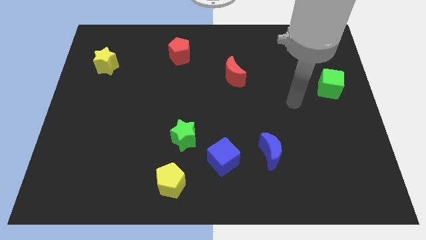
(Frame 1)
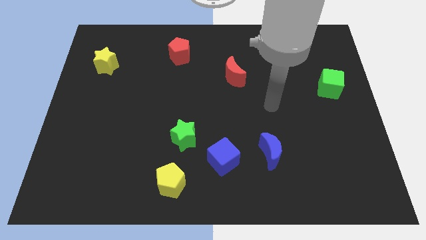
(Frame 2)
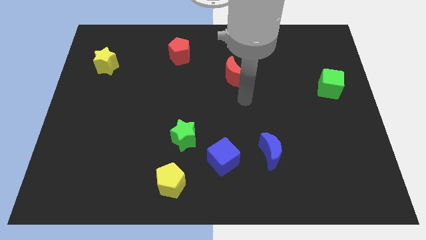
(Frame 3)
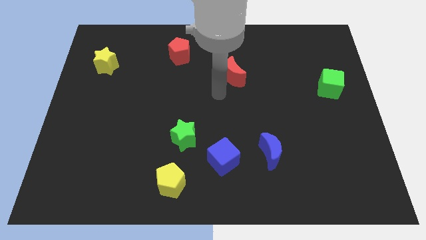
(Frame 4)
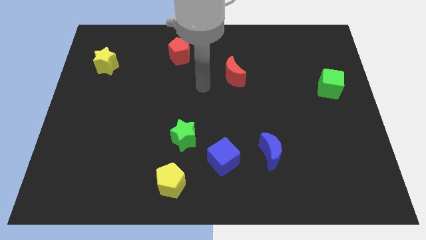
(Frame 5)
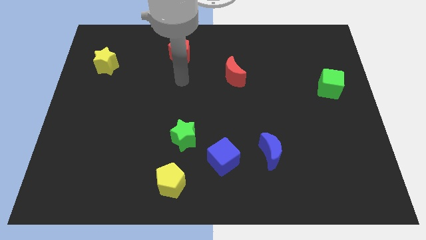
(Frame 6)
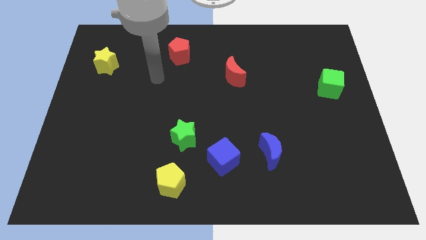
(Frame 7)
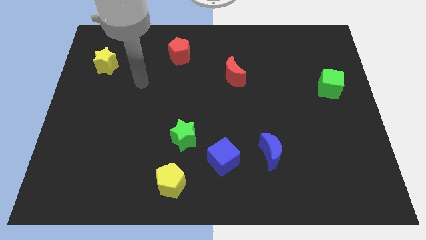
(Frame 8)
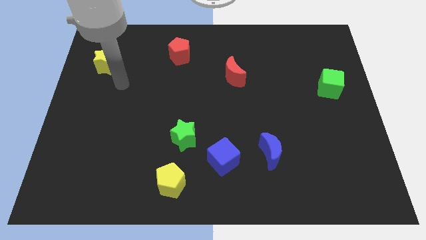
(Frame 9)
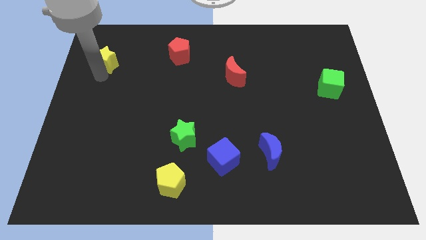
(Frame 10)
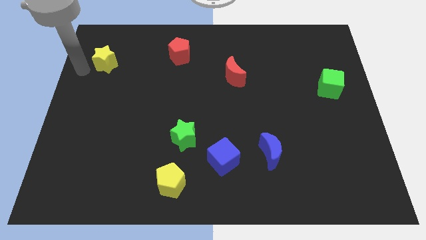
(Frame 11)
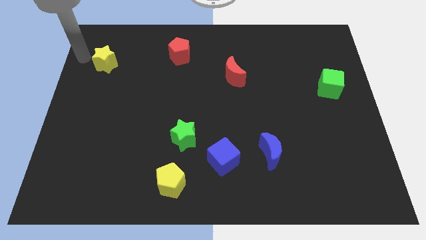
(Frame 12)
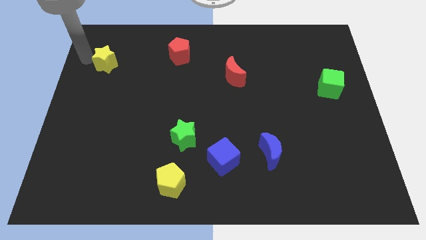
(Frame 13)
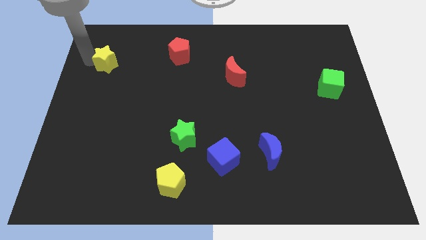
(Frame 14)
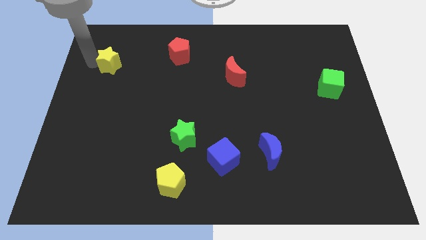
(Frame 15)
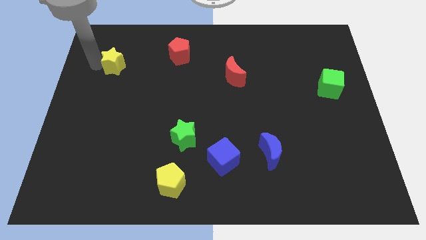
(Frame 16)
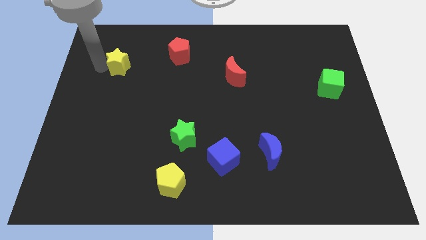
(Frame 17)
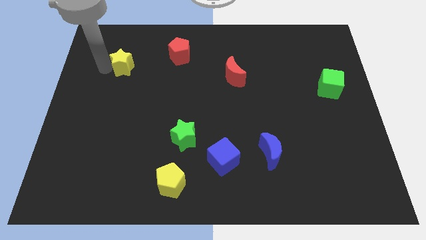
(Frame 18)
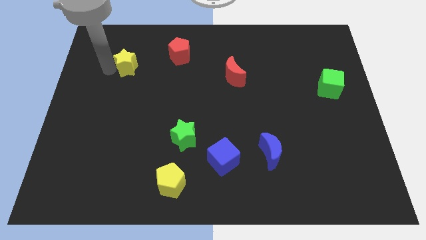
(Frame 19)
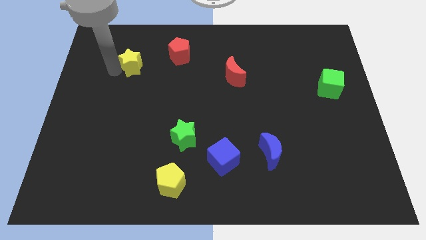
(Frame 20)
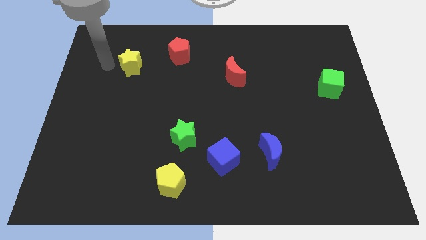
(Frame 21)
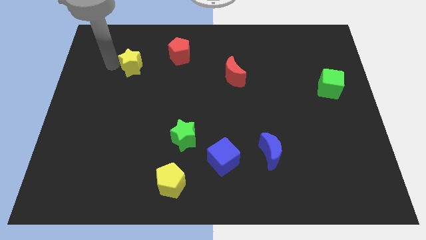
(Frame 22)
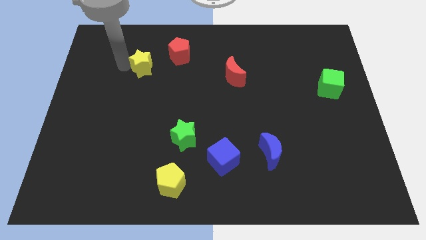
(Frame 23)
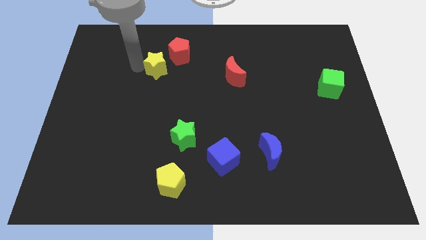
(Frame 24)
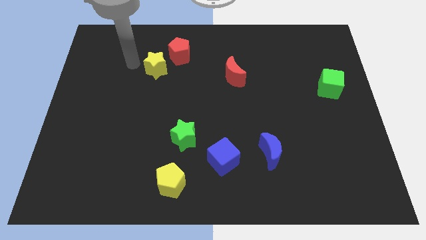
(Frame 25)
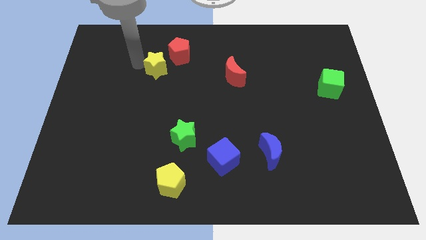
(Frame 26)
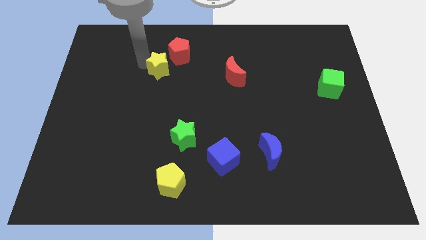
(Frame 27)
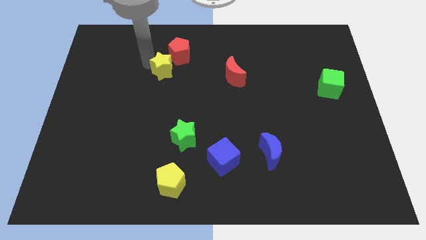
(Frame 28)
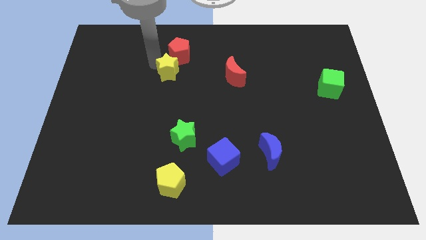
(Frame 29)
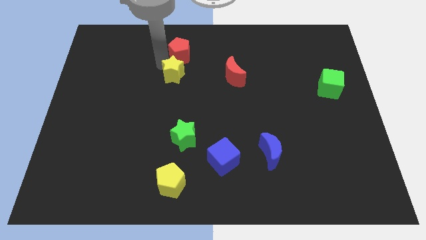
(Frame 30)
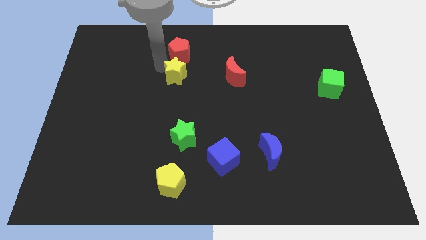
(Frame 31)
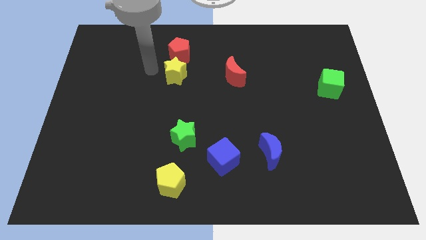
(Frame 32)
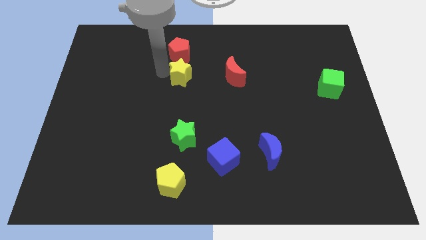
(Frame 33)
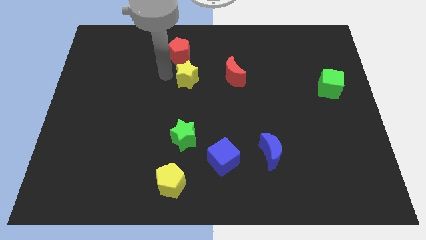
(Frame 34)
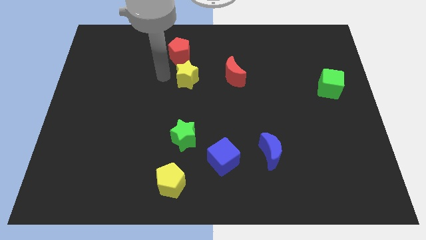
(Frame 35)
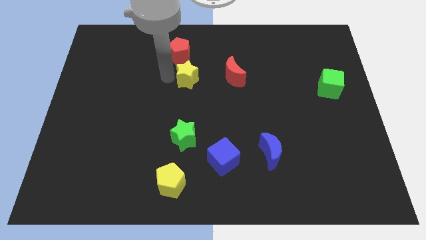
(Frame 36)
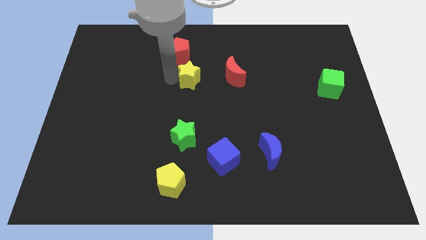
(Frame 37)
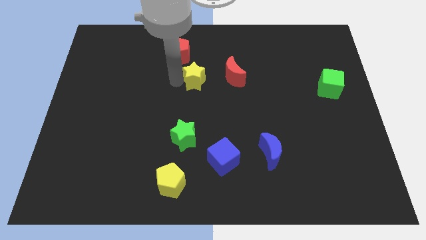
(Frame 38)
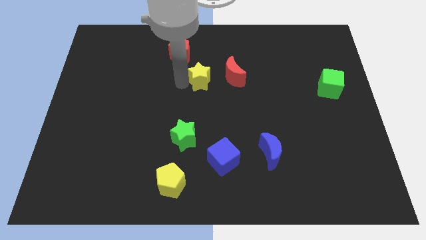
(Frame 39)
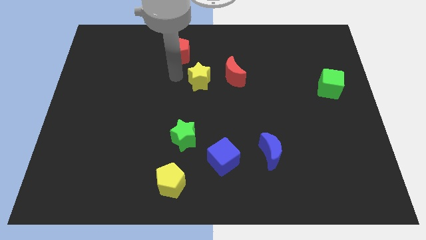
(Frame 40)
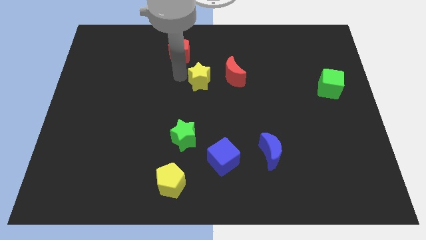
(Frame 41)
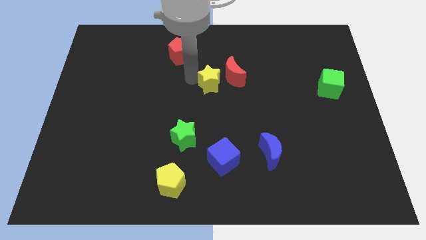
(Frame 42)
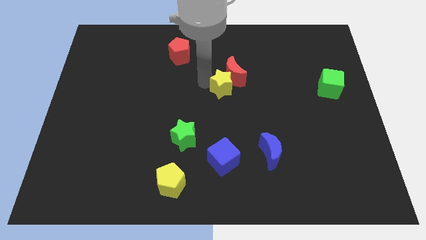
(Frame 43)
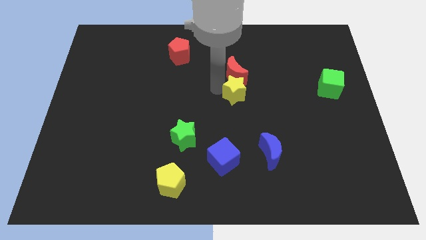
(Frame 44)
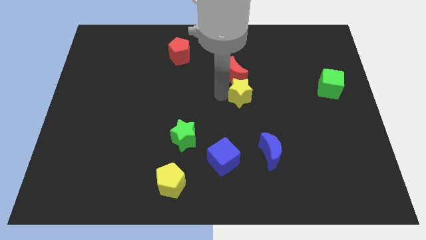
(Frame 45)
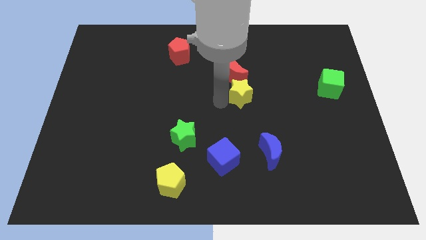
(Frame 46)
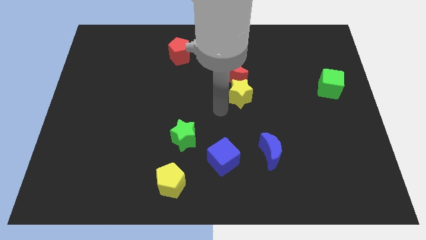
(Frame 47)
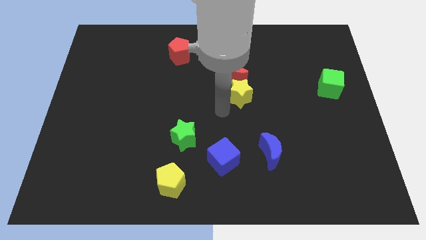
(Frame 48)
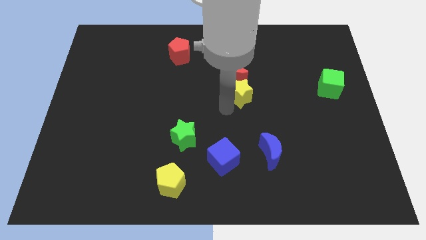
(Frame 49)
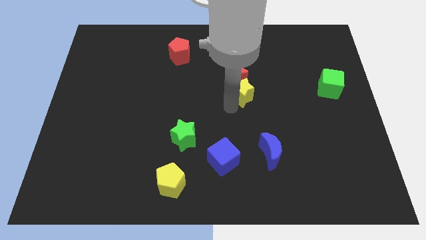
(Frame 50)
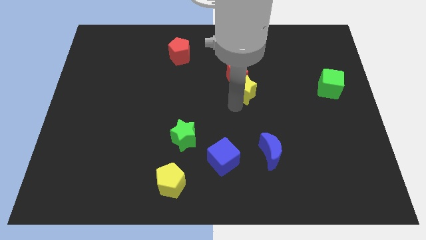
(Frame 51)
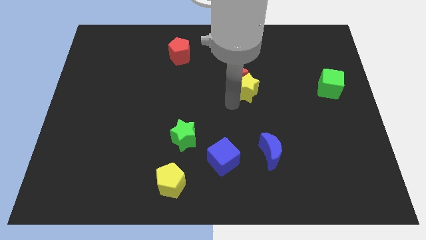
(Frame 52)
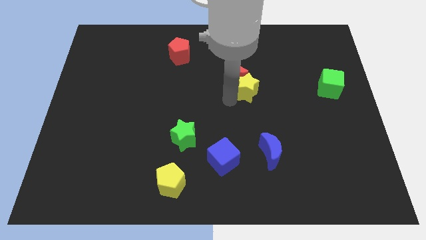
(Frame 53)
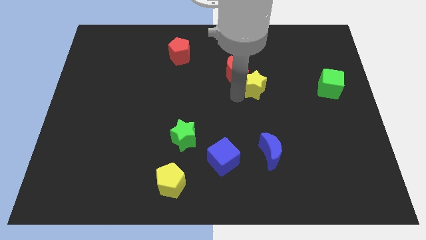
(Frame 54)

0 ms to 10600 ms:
push the yellow star just right of the red moon

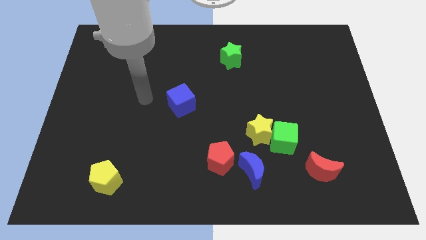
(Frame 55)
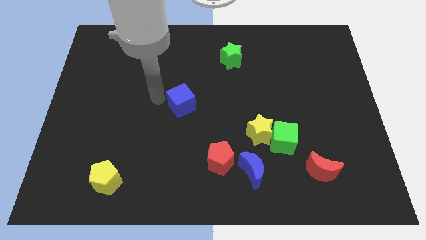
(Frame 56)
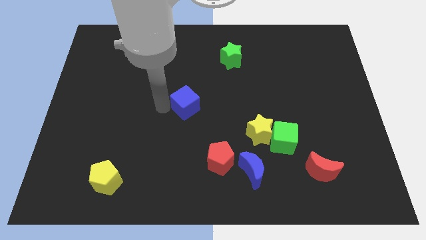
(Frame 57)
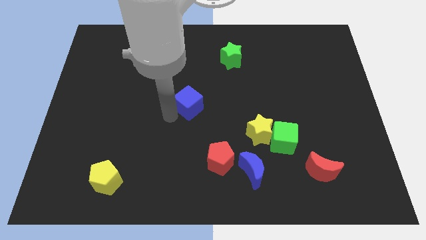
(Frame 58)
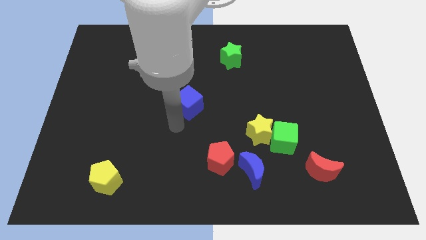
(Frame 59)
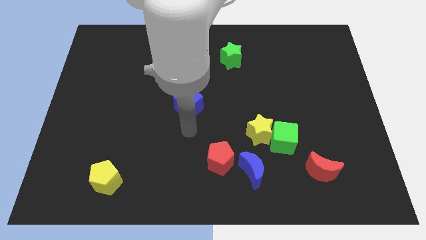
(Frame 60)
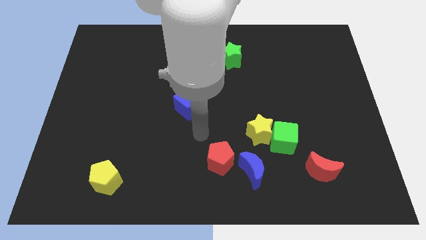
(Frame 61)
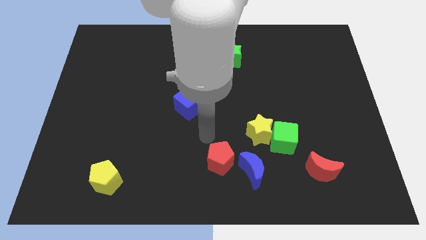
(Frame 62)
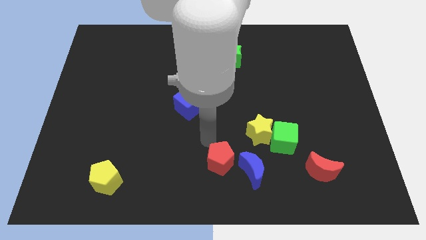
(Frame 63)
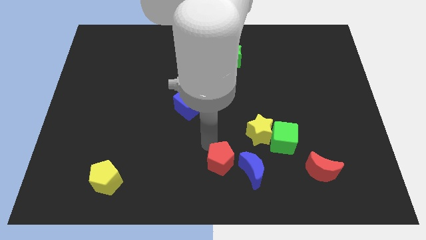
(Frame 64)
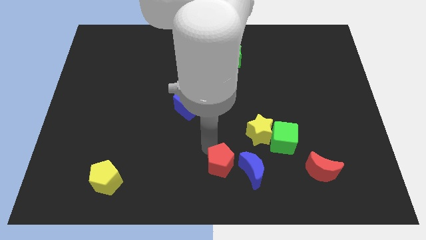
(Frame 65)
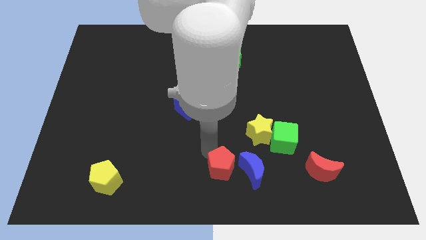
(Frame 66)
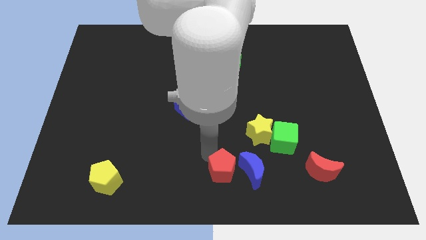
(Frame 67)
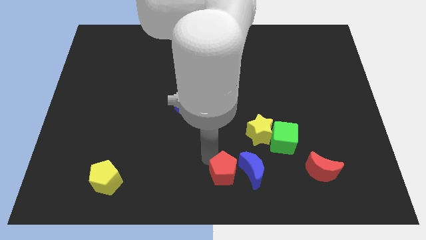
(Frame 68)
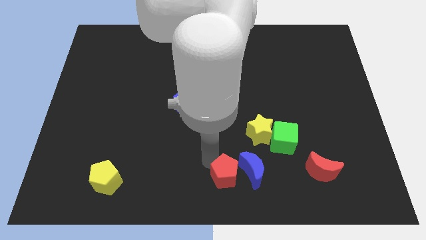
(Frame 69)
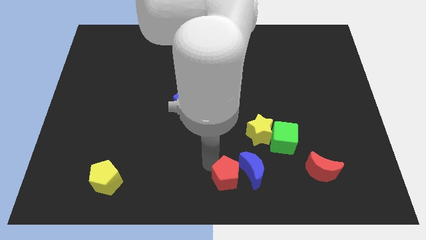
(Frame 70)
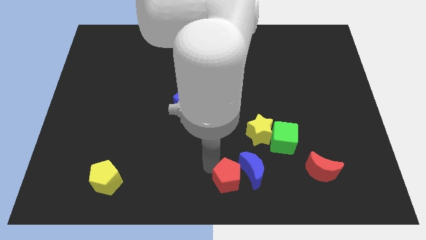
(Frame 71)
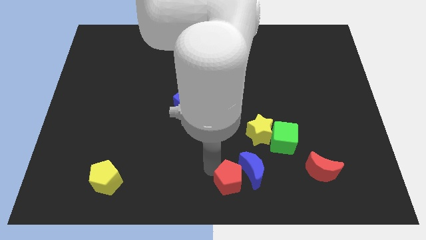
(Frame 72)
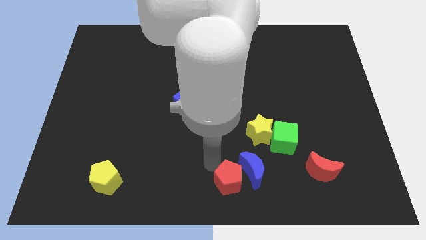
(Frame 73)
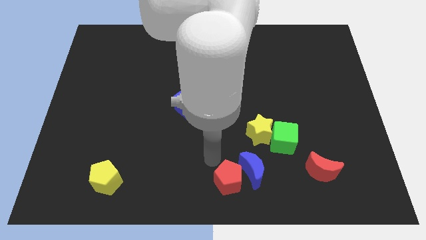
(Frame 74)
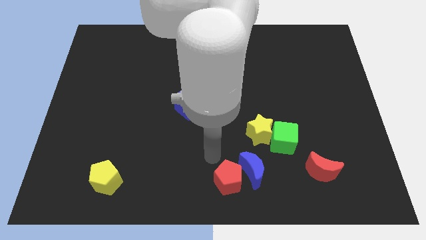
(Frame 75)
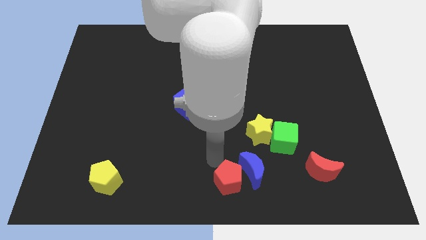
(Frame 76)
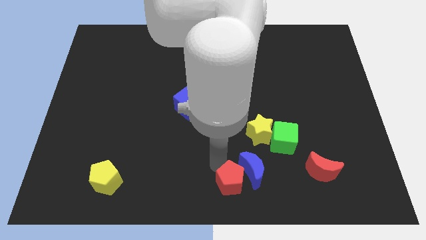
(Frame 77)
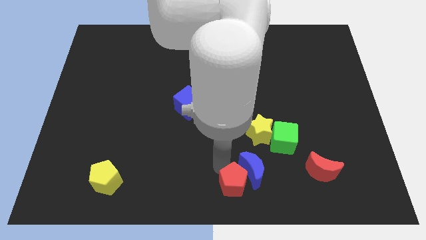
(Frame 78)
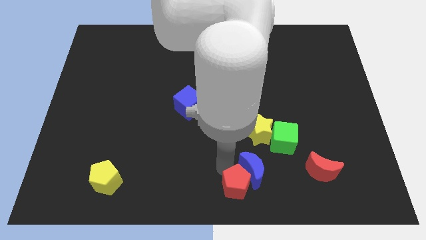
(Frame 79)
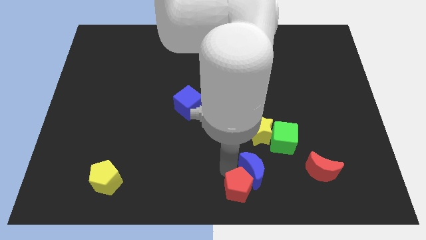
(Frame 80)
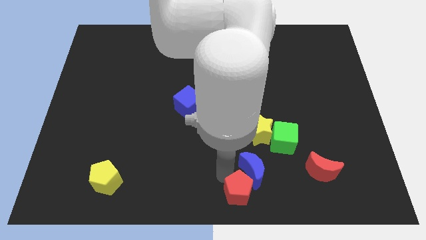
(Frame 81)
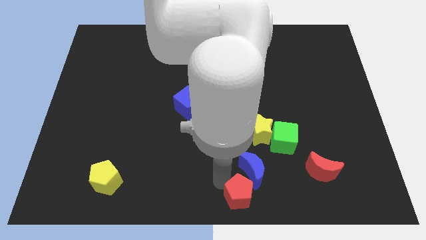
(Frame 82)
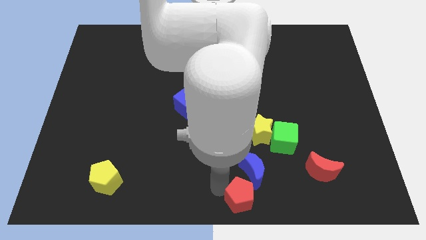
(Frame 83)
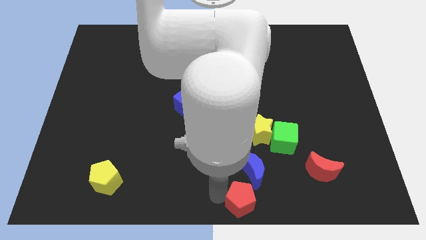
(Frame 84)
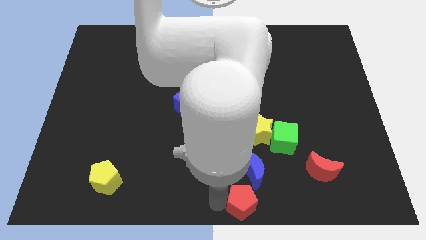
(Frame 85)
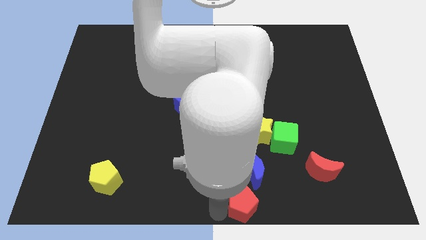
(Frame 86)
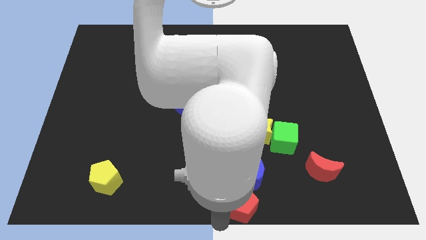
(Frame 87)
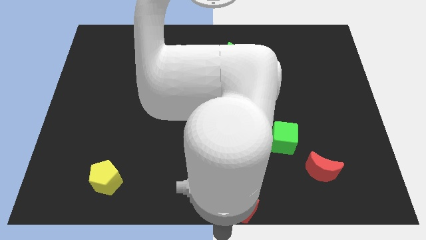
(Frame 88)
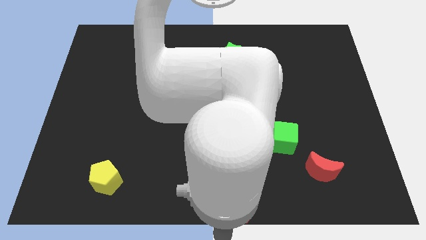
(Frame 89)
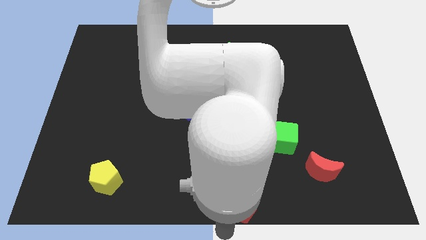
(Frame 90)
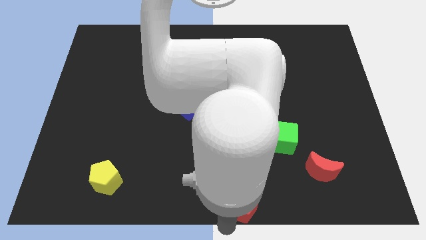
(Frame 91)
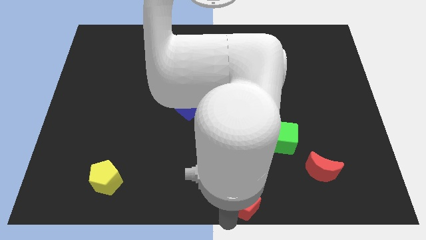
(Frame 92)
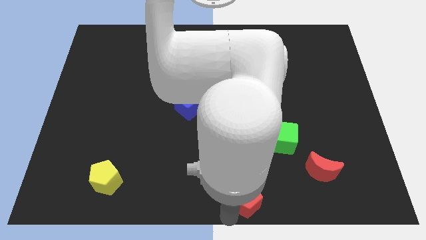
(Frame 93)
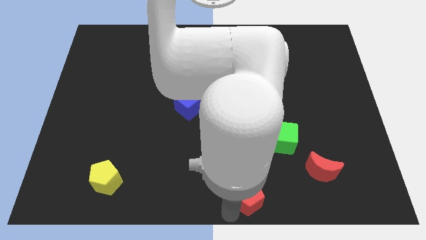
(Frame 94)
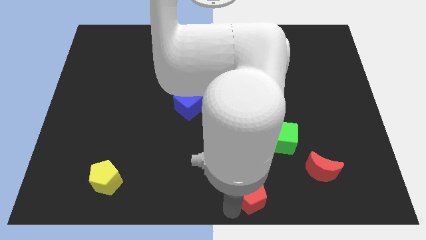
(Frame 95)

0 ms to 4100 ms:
push the red pentagon below the yellow star
